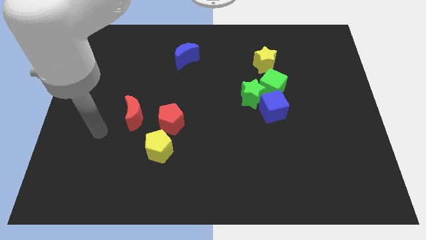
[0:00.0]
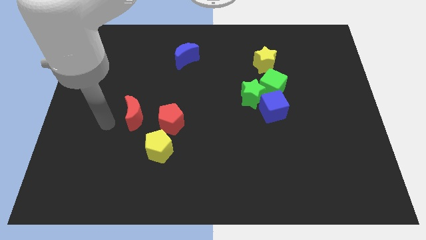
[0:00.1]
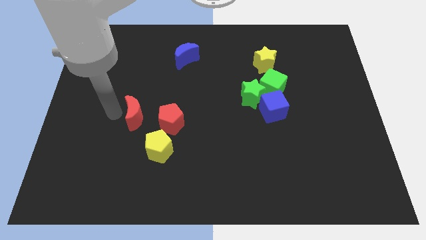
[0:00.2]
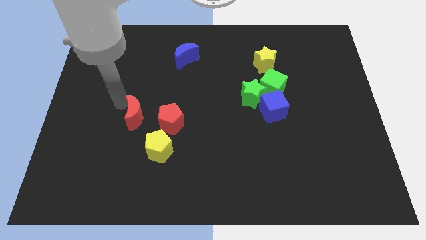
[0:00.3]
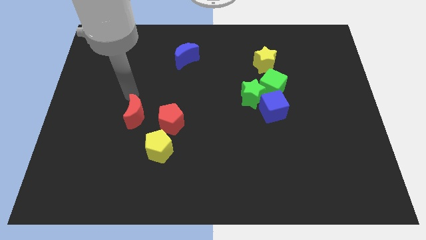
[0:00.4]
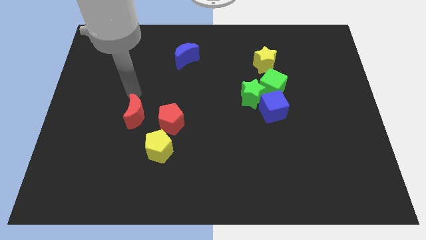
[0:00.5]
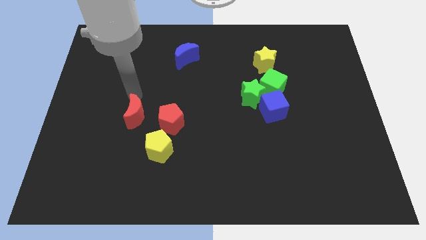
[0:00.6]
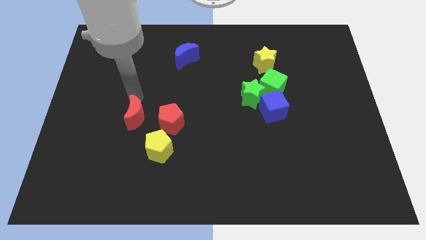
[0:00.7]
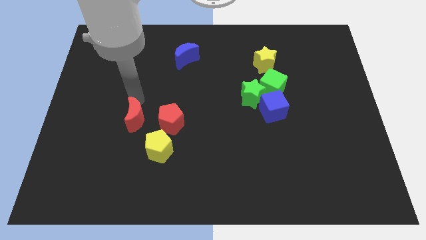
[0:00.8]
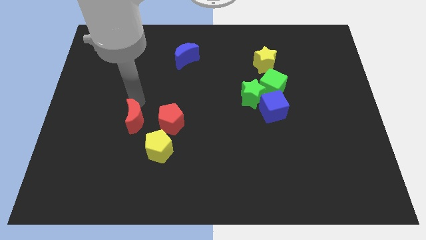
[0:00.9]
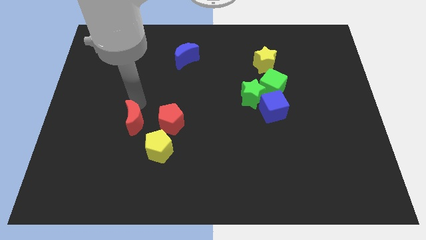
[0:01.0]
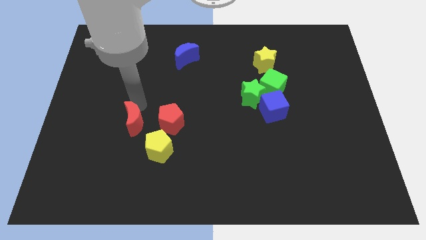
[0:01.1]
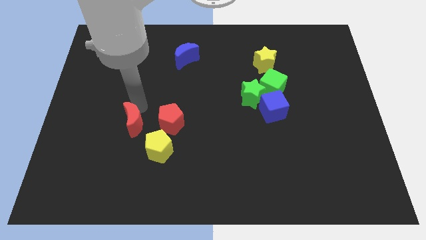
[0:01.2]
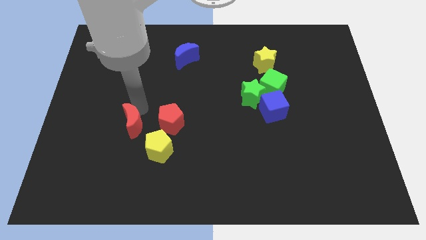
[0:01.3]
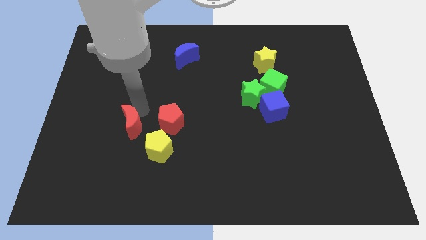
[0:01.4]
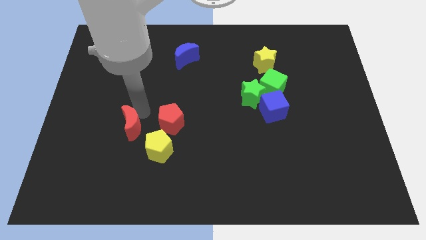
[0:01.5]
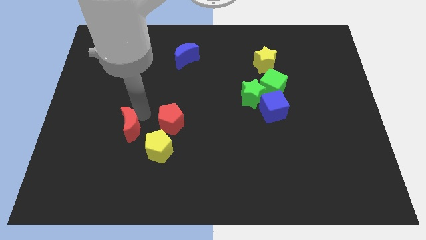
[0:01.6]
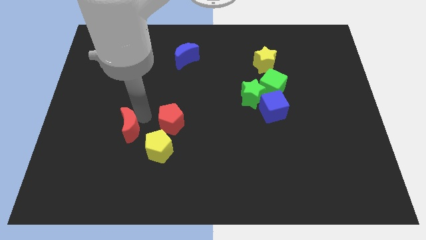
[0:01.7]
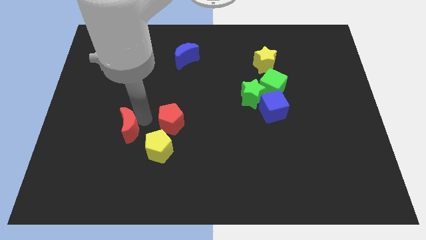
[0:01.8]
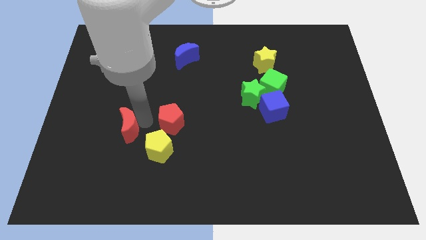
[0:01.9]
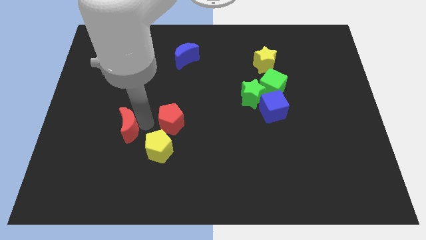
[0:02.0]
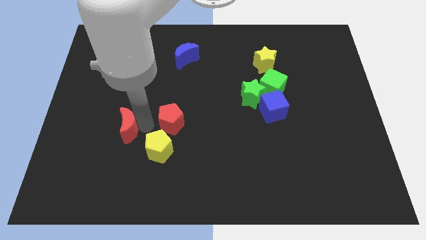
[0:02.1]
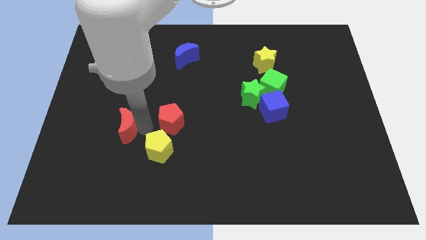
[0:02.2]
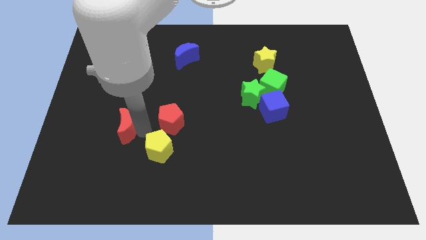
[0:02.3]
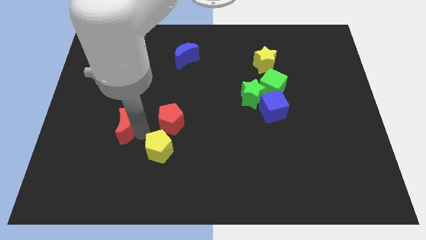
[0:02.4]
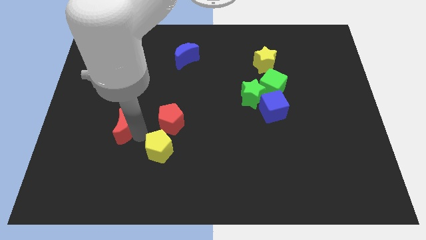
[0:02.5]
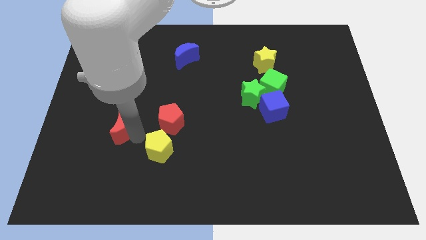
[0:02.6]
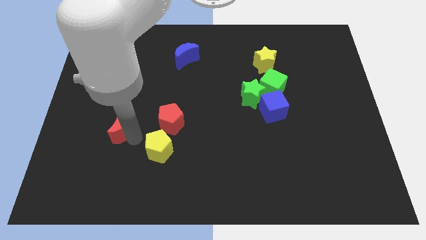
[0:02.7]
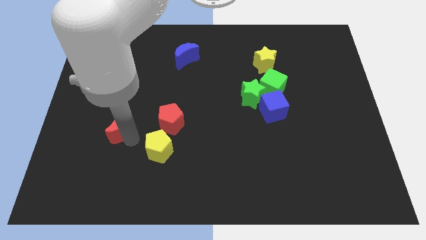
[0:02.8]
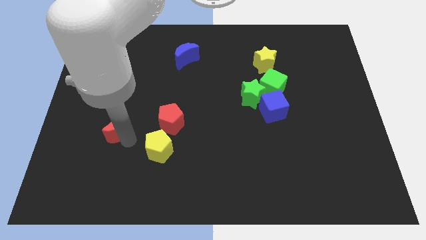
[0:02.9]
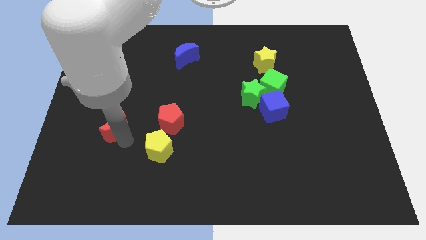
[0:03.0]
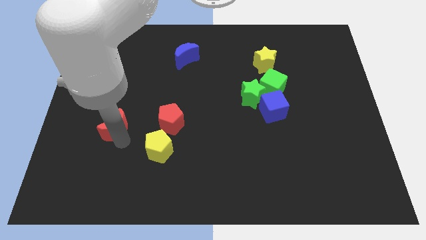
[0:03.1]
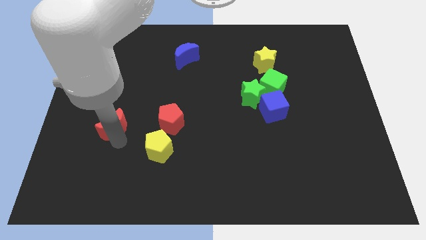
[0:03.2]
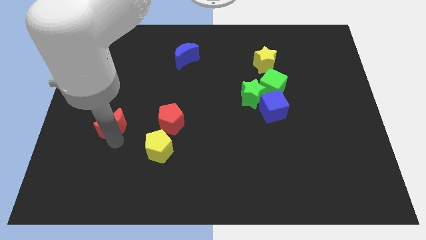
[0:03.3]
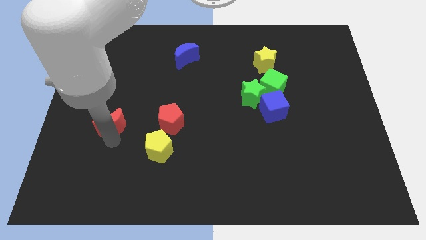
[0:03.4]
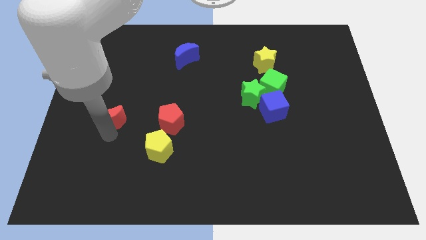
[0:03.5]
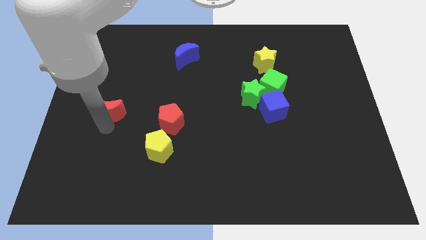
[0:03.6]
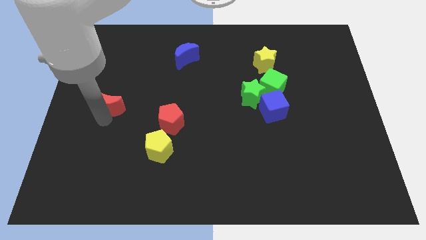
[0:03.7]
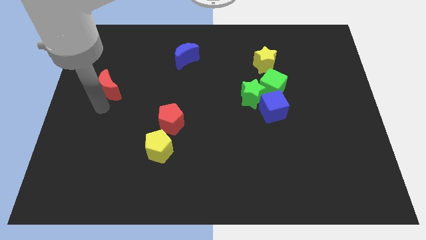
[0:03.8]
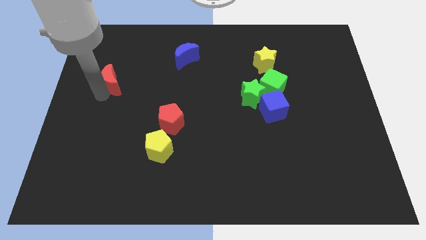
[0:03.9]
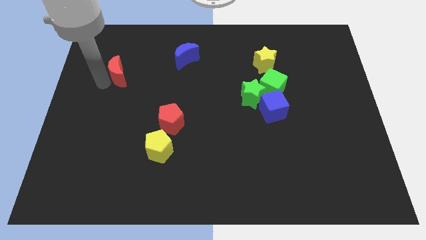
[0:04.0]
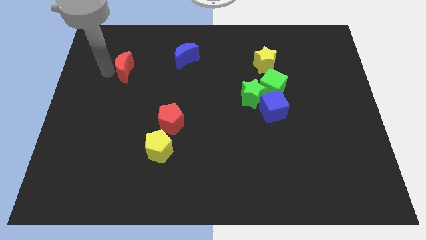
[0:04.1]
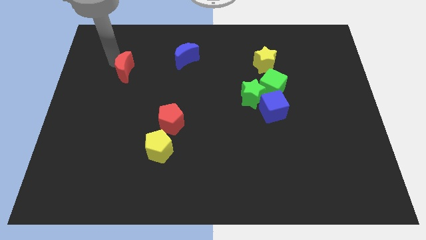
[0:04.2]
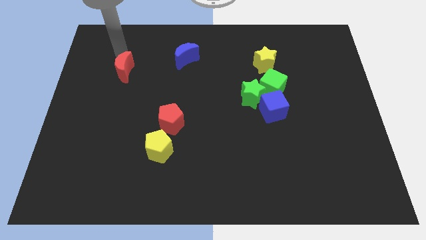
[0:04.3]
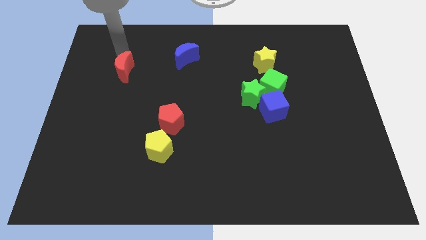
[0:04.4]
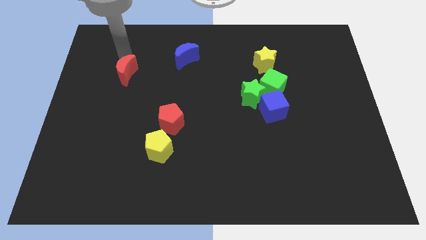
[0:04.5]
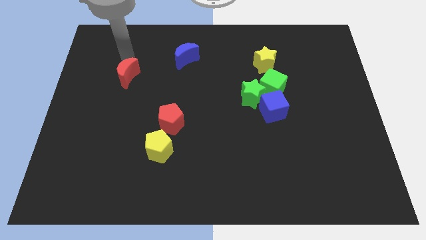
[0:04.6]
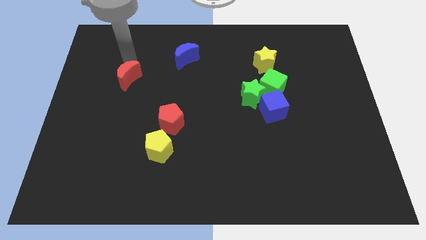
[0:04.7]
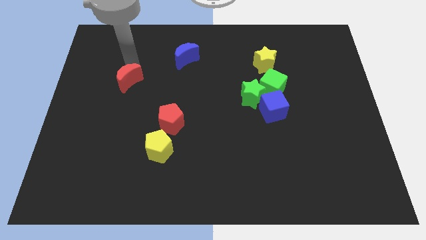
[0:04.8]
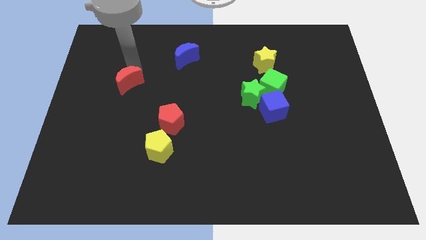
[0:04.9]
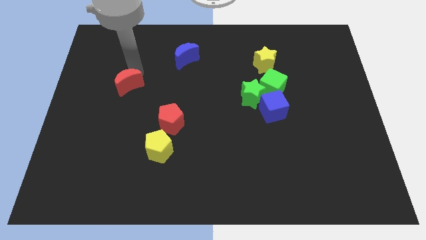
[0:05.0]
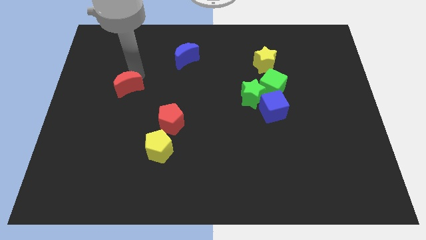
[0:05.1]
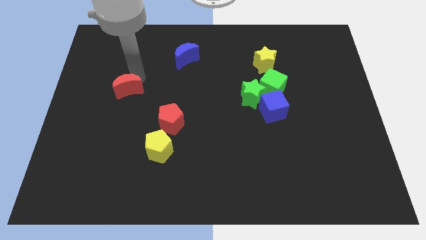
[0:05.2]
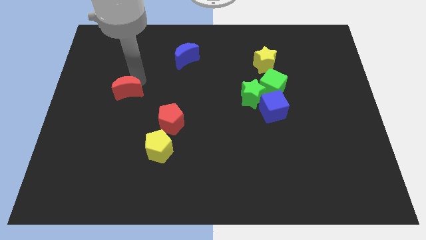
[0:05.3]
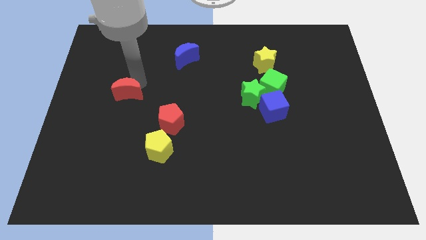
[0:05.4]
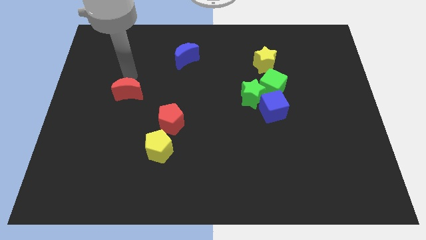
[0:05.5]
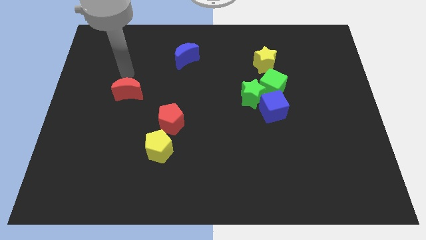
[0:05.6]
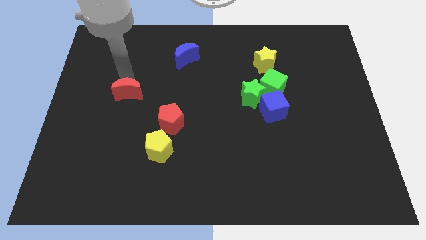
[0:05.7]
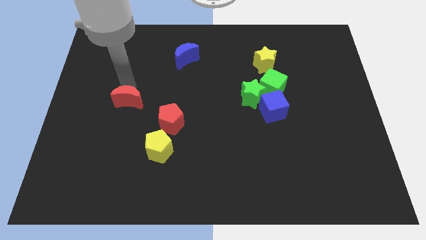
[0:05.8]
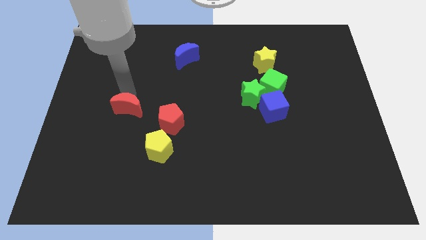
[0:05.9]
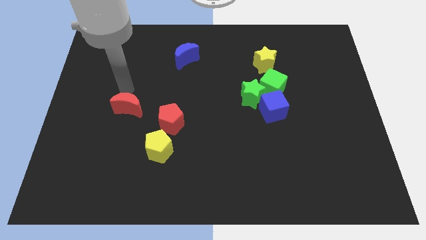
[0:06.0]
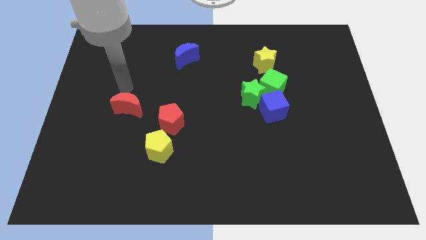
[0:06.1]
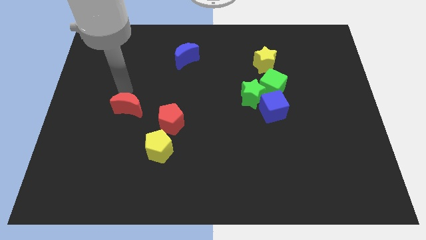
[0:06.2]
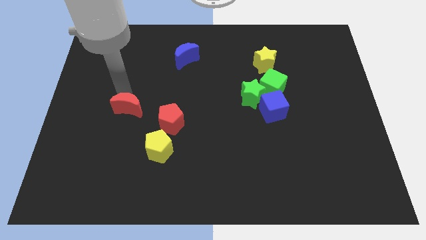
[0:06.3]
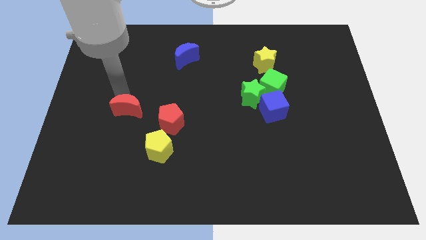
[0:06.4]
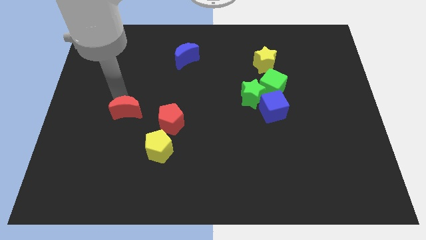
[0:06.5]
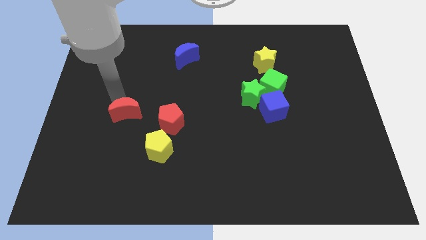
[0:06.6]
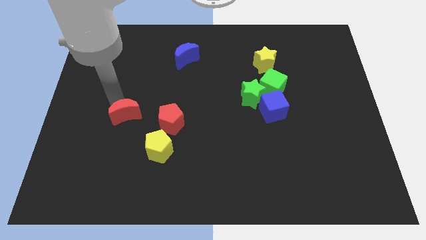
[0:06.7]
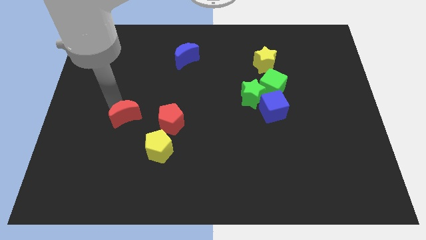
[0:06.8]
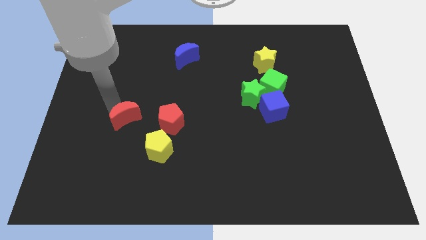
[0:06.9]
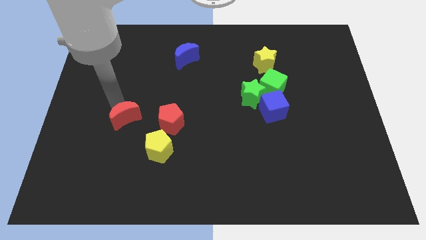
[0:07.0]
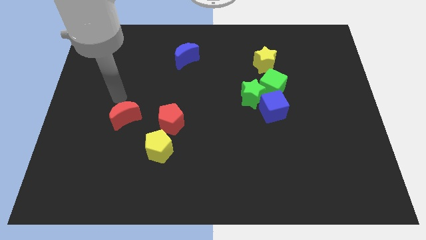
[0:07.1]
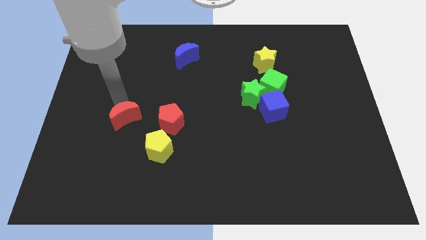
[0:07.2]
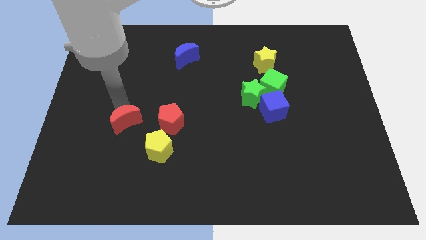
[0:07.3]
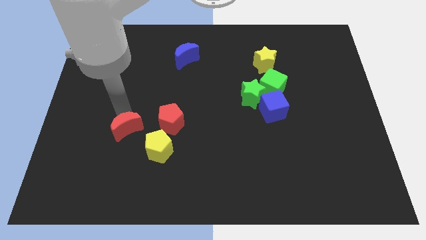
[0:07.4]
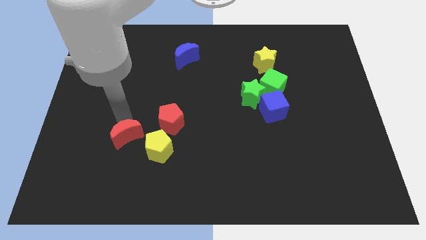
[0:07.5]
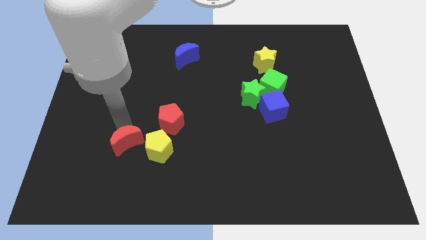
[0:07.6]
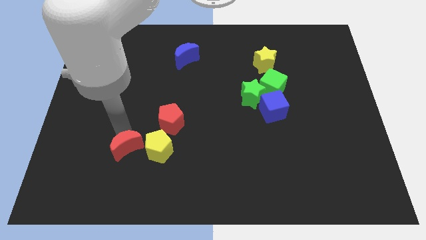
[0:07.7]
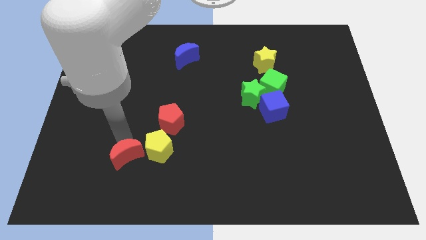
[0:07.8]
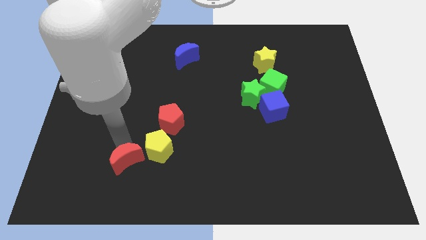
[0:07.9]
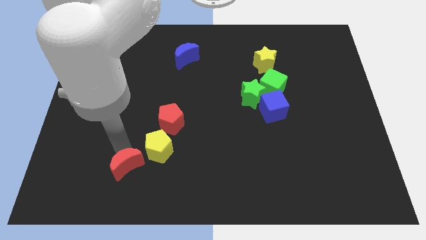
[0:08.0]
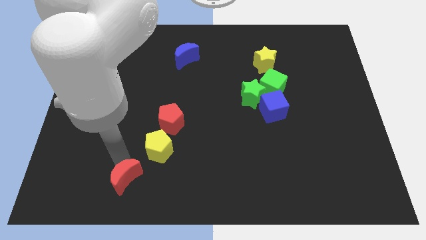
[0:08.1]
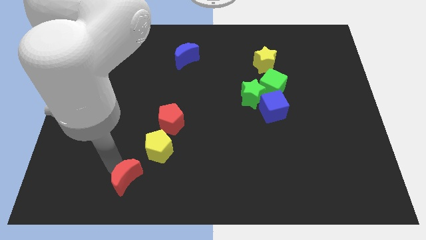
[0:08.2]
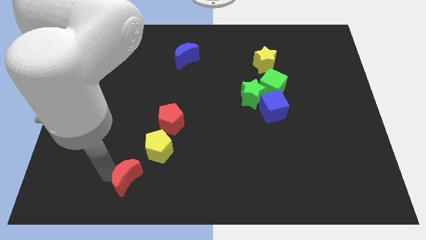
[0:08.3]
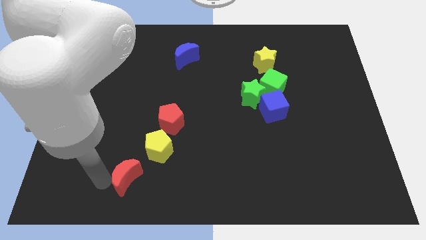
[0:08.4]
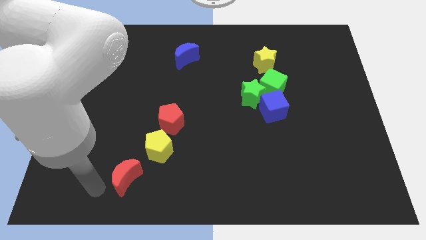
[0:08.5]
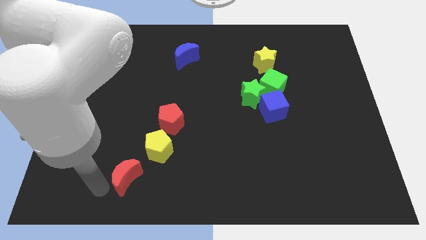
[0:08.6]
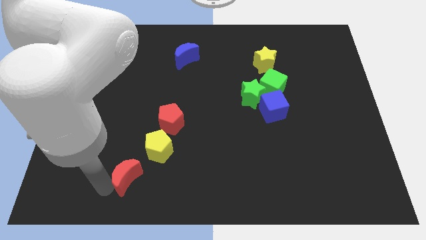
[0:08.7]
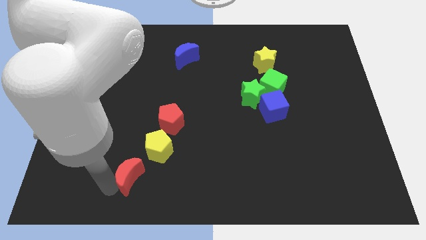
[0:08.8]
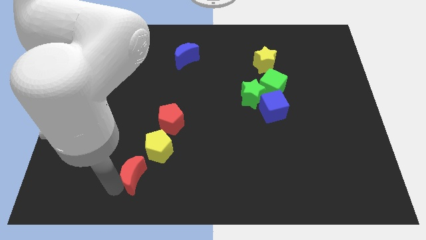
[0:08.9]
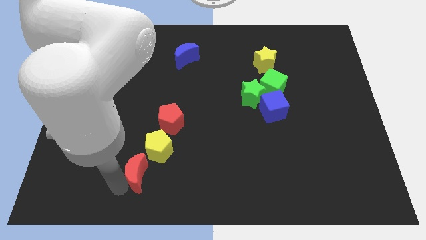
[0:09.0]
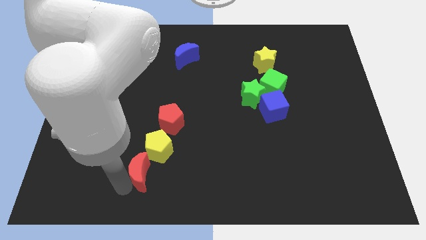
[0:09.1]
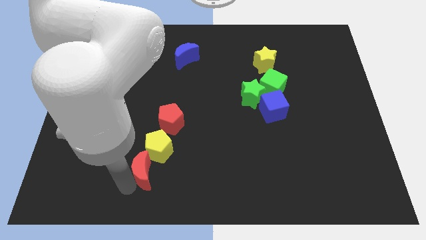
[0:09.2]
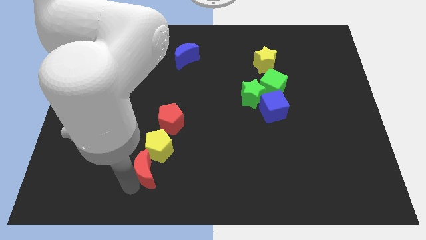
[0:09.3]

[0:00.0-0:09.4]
move the red moon to the bottom side of the red pentagon
